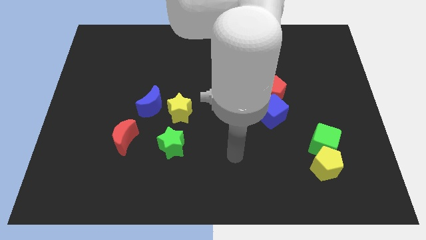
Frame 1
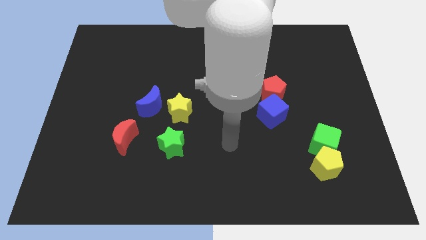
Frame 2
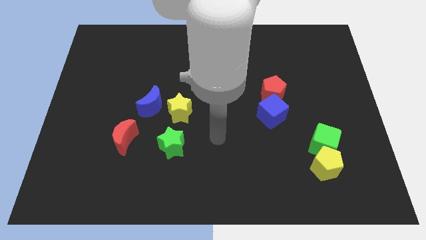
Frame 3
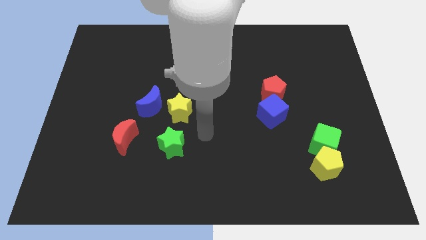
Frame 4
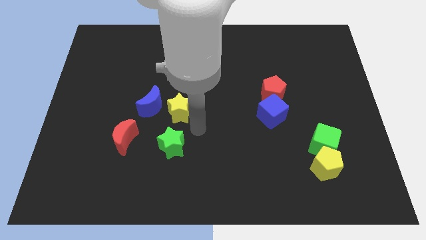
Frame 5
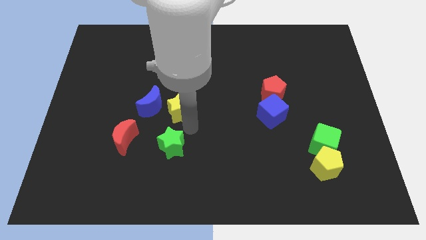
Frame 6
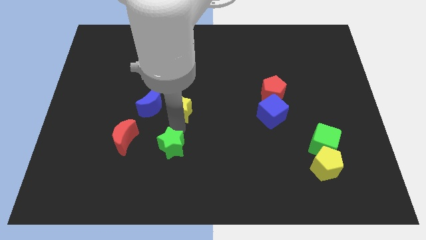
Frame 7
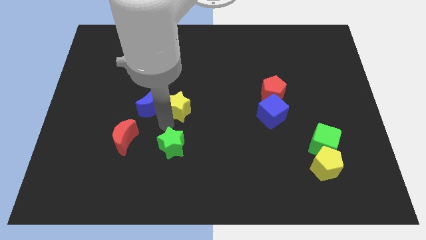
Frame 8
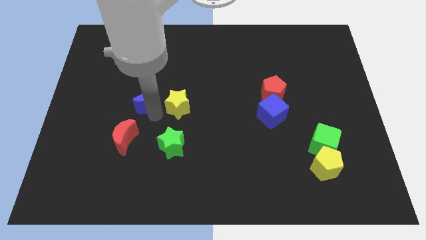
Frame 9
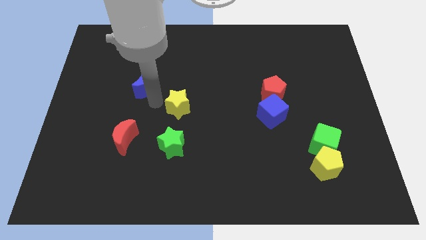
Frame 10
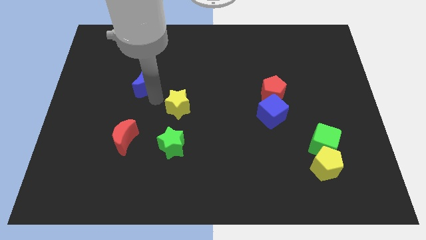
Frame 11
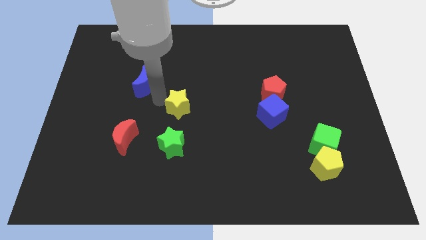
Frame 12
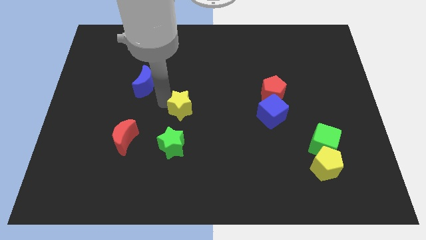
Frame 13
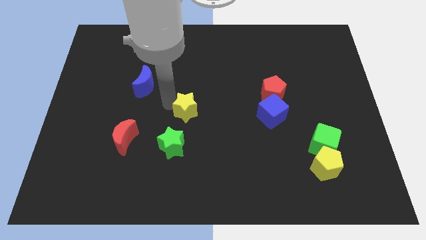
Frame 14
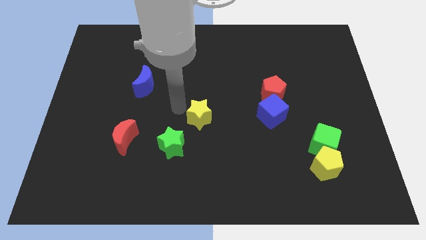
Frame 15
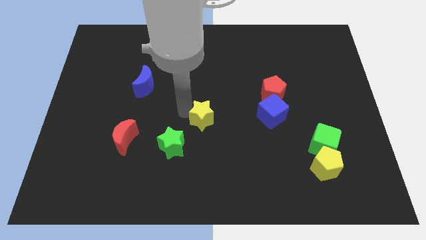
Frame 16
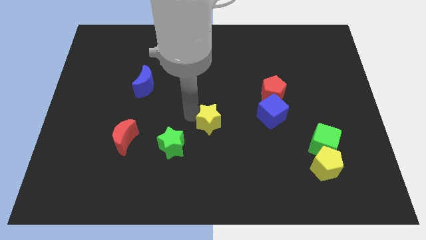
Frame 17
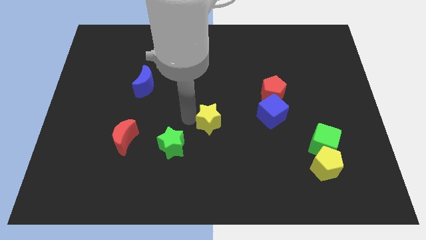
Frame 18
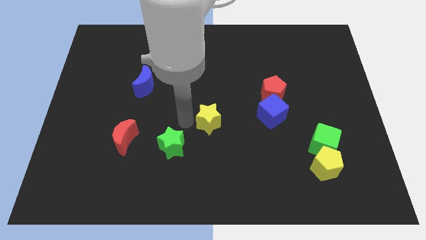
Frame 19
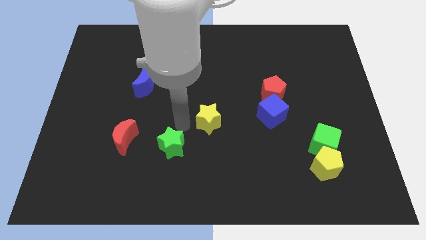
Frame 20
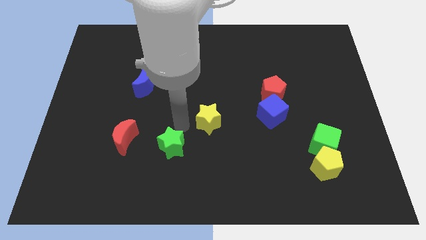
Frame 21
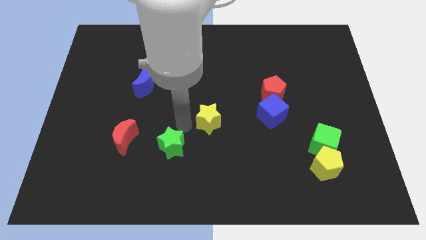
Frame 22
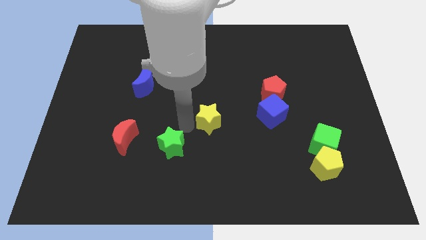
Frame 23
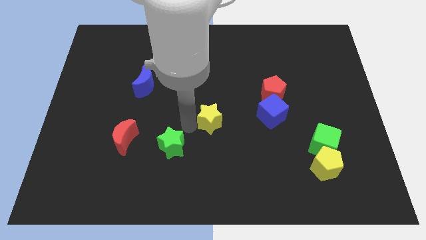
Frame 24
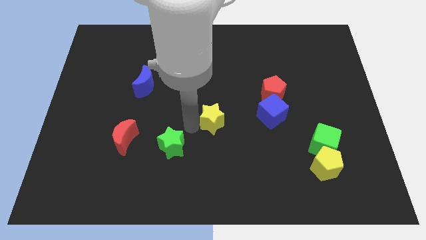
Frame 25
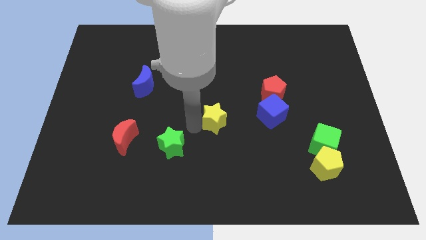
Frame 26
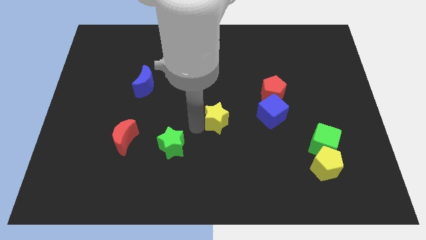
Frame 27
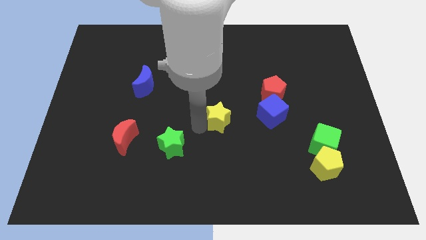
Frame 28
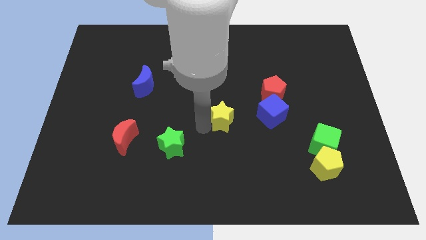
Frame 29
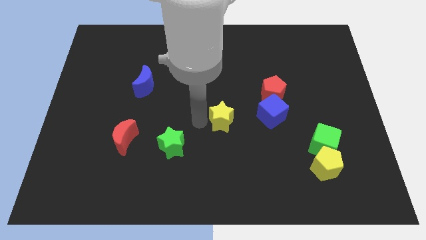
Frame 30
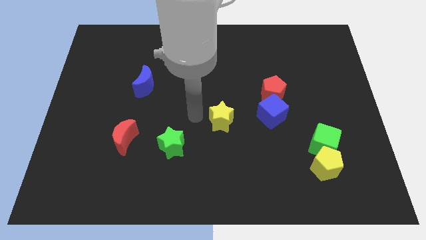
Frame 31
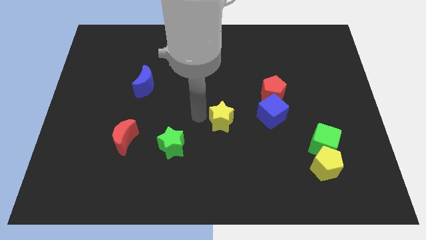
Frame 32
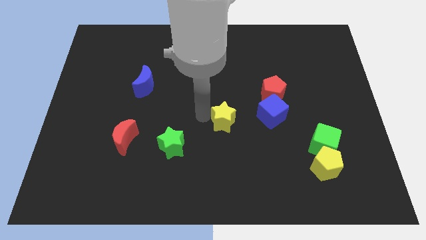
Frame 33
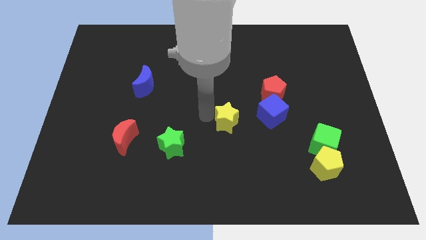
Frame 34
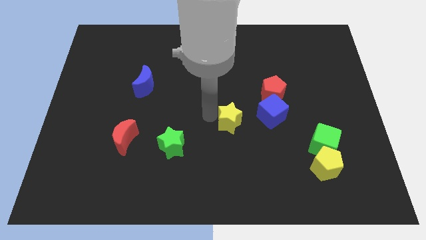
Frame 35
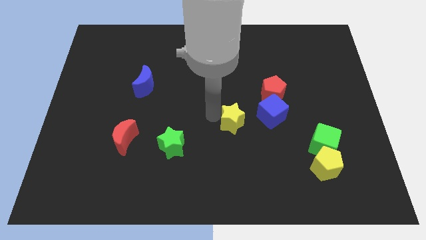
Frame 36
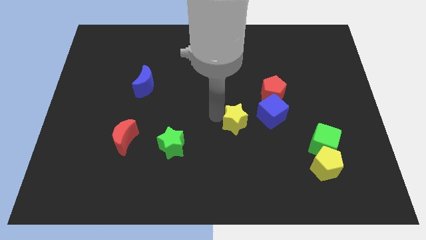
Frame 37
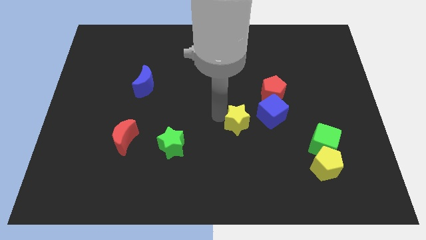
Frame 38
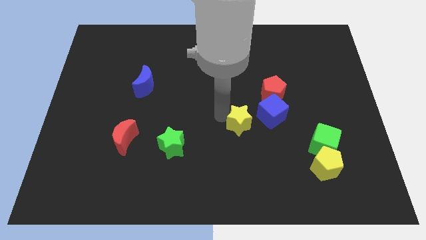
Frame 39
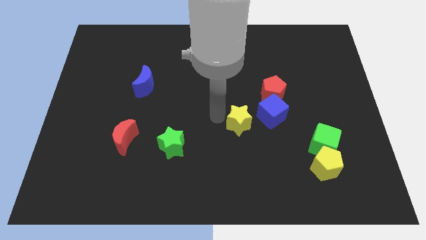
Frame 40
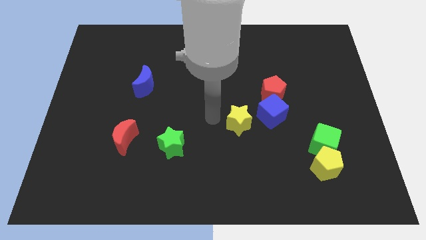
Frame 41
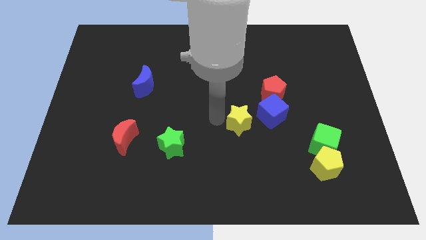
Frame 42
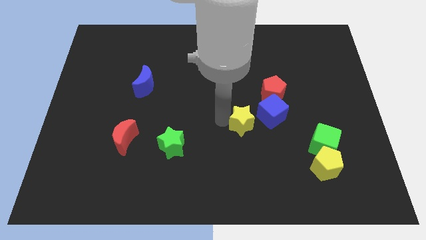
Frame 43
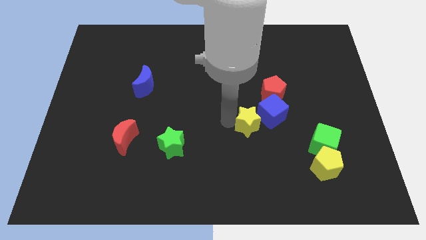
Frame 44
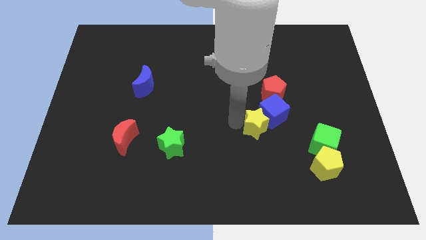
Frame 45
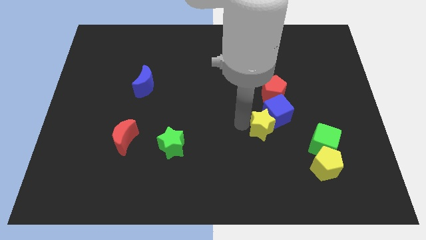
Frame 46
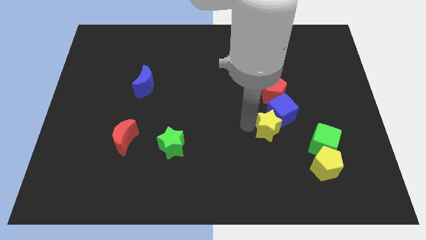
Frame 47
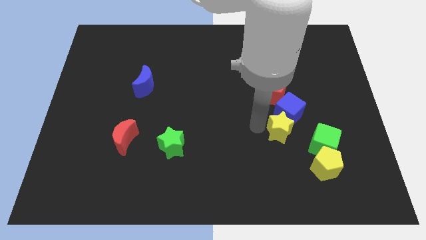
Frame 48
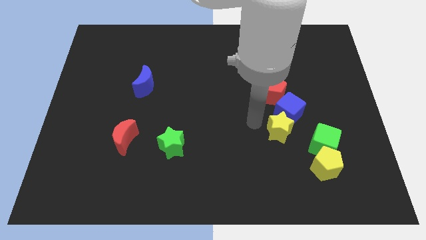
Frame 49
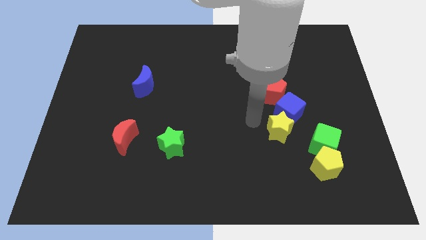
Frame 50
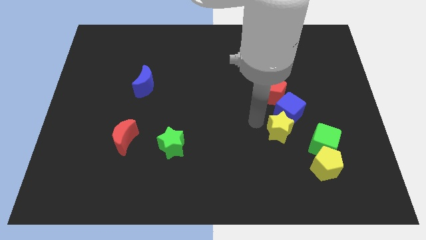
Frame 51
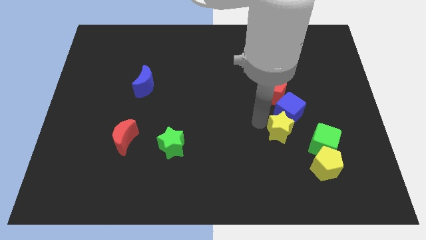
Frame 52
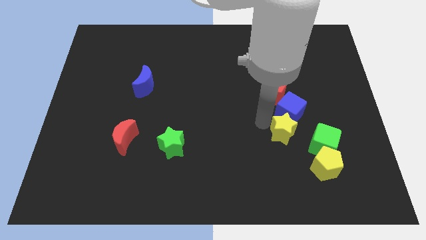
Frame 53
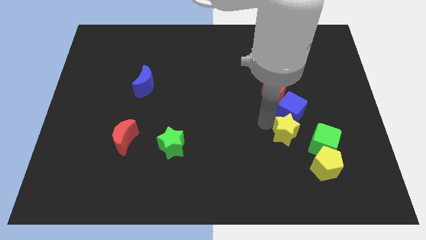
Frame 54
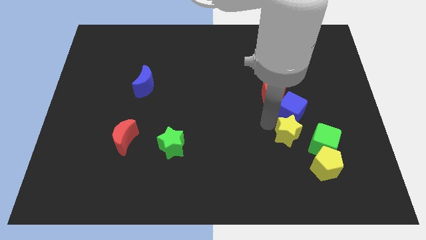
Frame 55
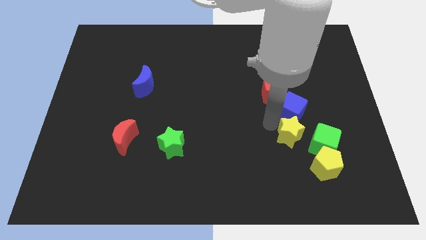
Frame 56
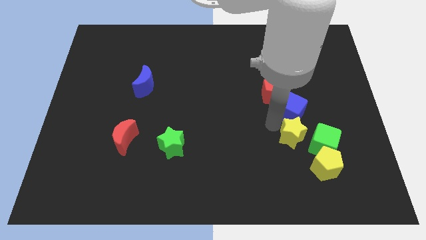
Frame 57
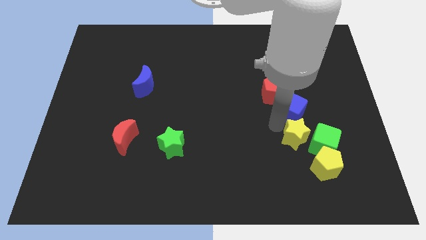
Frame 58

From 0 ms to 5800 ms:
slide the yellow star towards the green cube

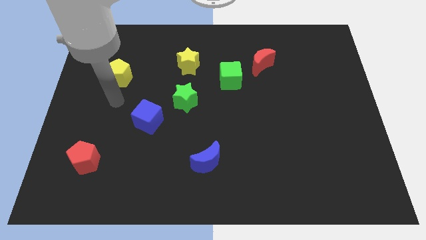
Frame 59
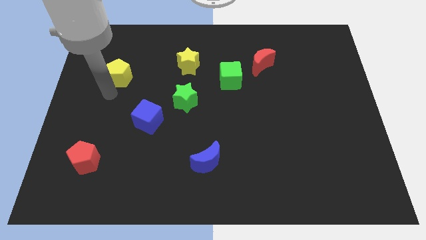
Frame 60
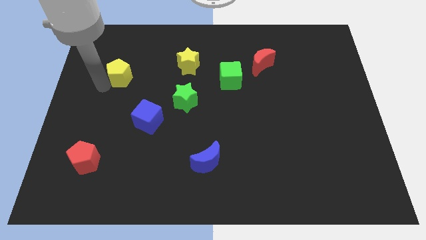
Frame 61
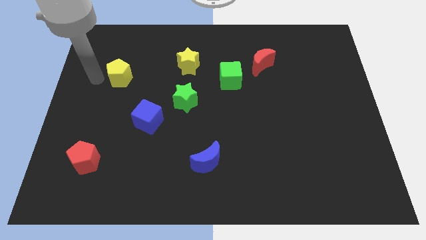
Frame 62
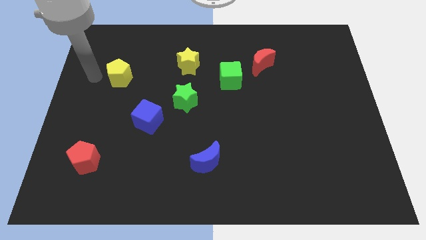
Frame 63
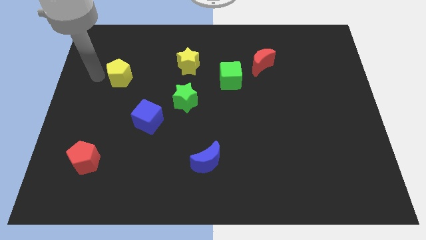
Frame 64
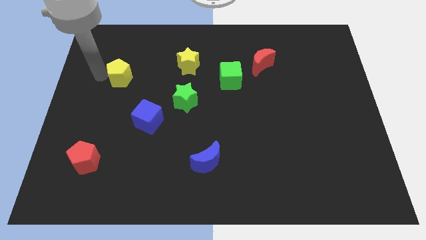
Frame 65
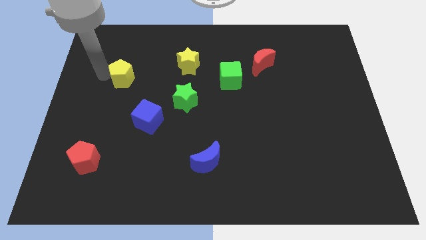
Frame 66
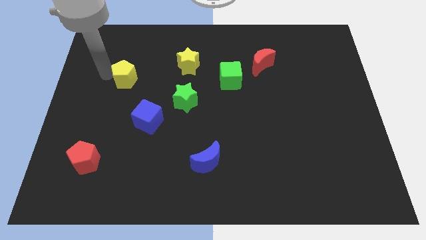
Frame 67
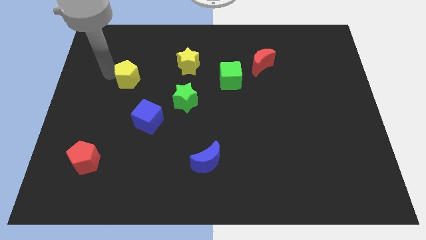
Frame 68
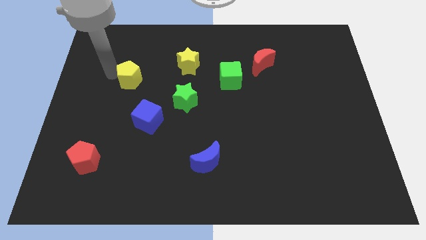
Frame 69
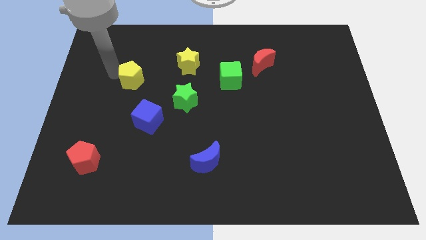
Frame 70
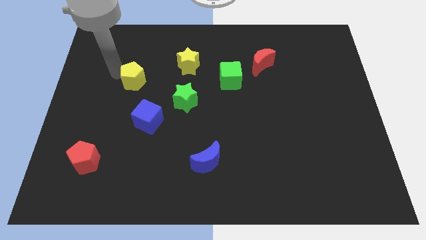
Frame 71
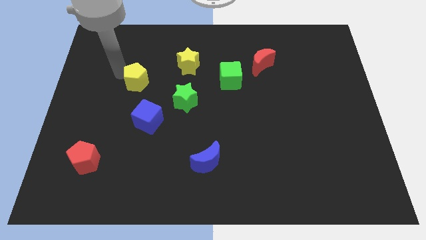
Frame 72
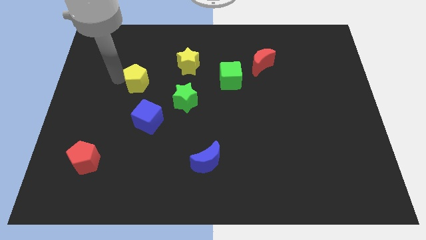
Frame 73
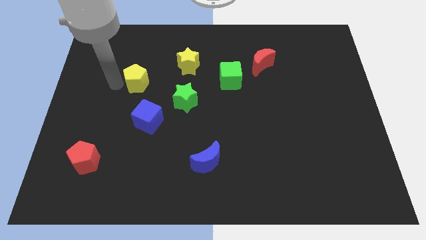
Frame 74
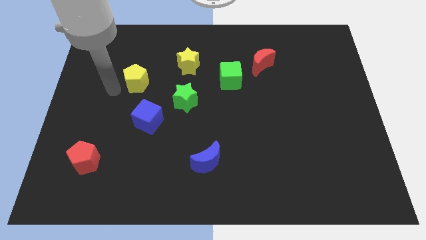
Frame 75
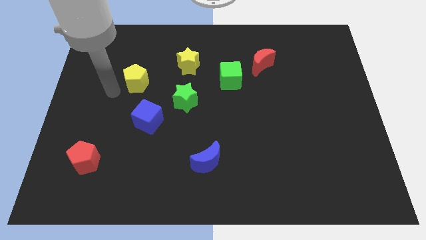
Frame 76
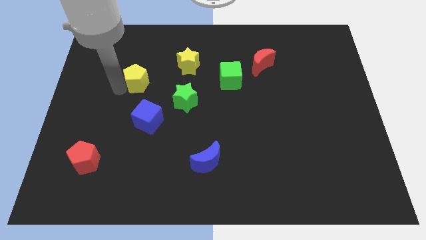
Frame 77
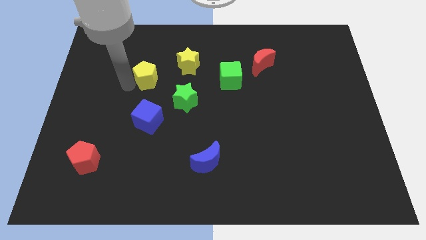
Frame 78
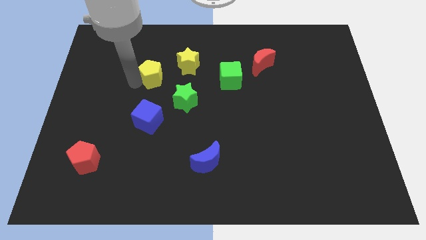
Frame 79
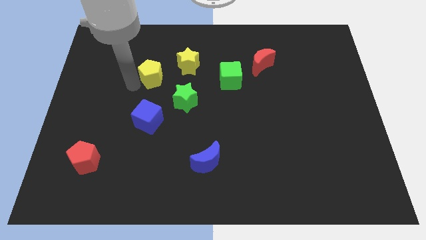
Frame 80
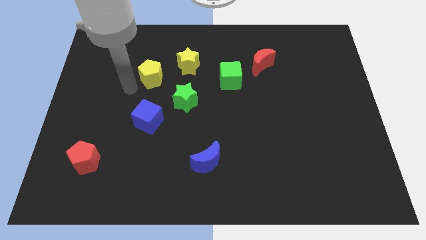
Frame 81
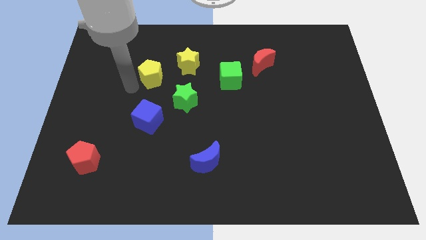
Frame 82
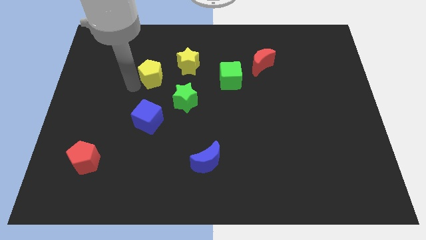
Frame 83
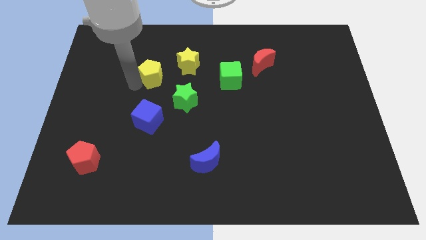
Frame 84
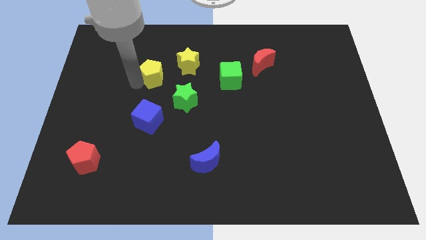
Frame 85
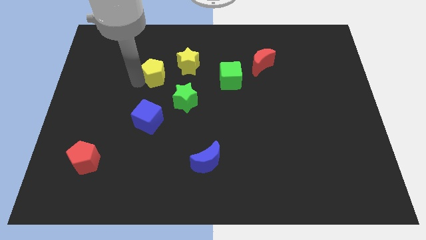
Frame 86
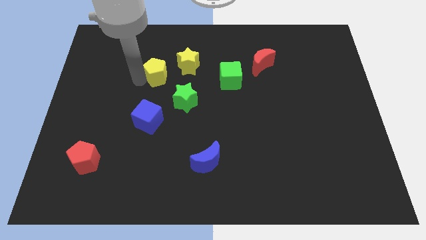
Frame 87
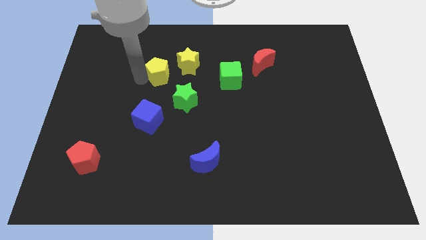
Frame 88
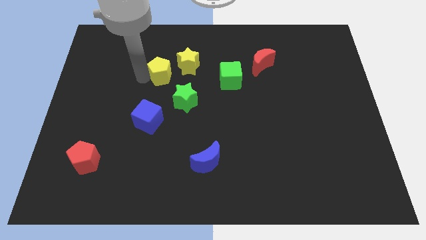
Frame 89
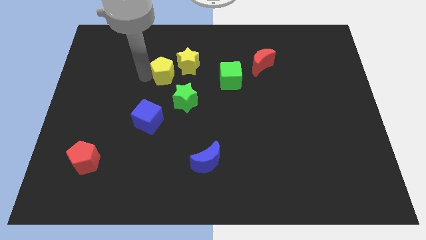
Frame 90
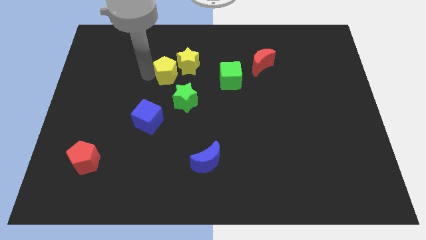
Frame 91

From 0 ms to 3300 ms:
move the yellow pentagon next to the yellow star
